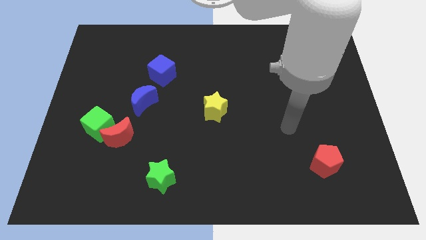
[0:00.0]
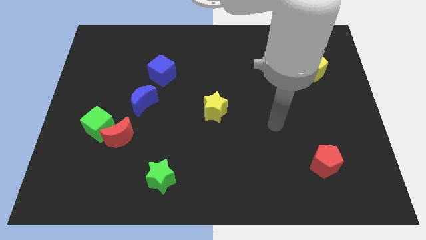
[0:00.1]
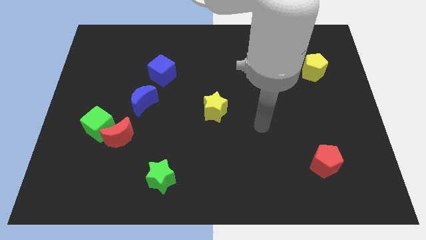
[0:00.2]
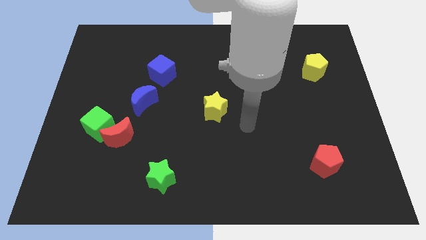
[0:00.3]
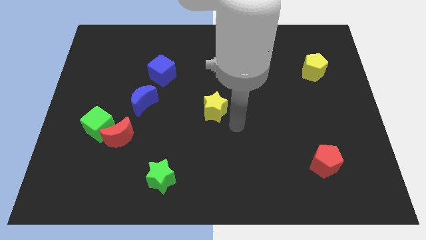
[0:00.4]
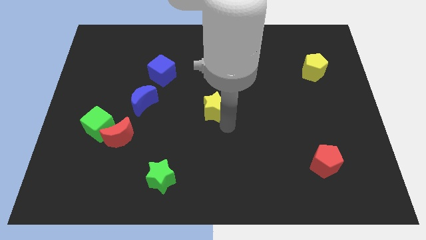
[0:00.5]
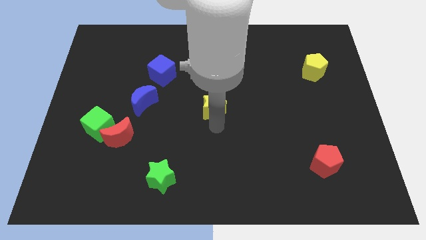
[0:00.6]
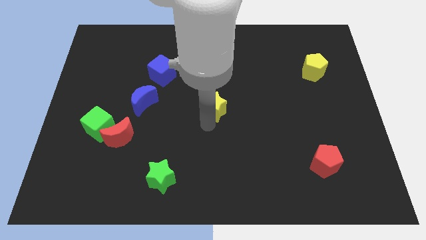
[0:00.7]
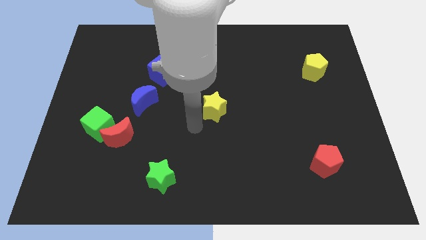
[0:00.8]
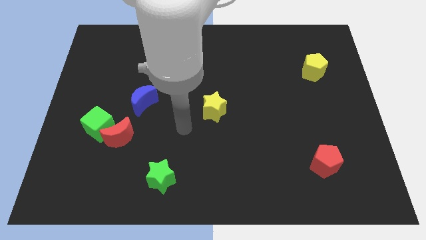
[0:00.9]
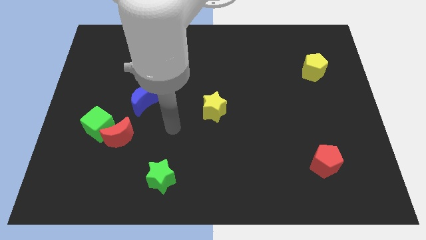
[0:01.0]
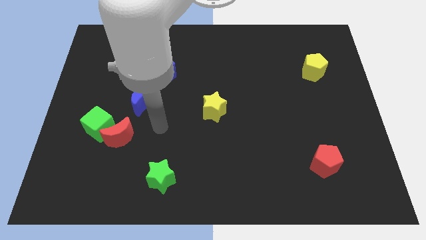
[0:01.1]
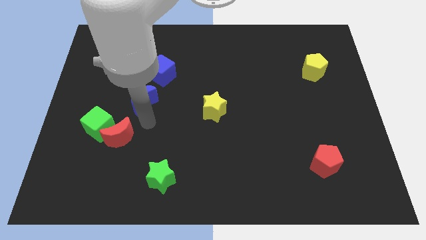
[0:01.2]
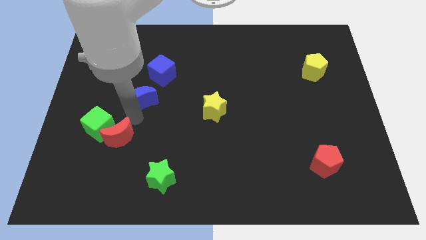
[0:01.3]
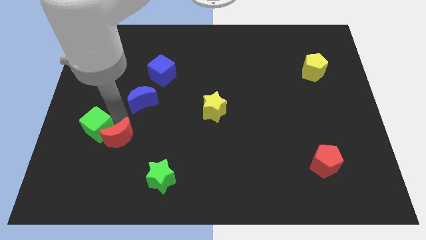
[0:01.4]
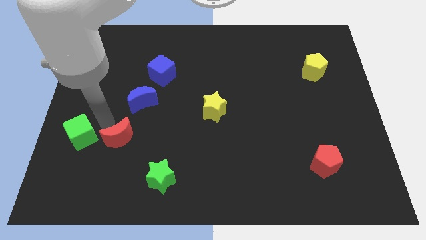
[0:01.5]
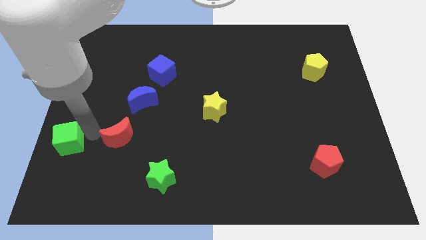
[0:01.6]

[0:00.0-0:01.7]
separate the red moon from the green cube

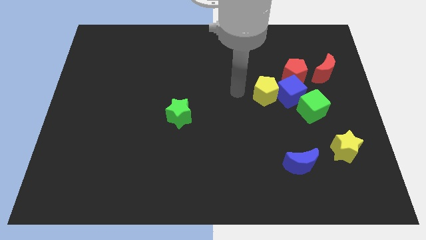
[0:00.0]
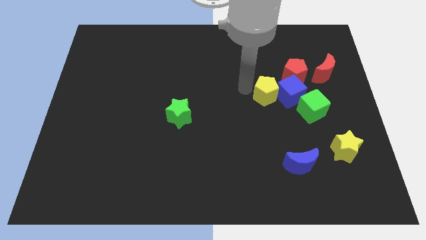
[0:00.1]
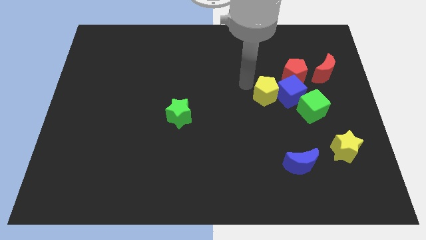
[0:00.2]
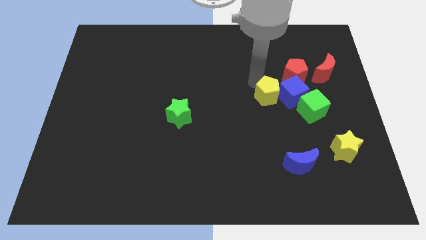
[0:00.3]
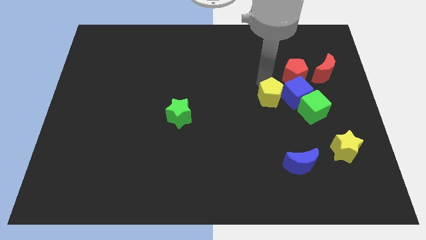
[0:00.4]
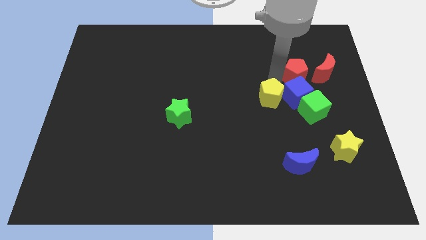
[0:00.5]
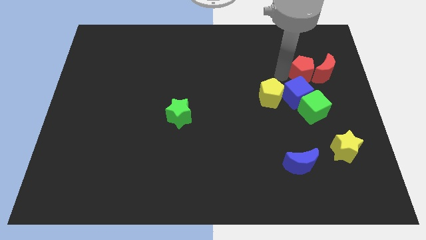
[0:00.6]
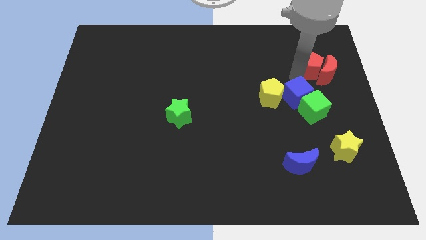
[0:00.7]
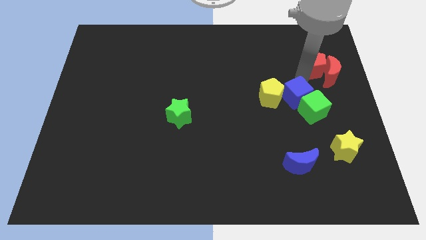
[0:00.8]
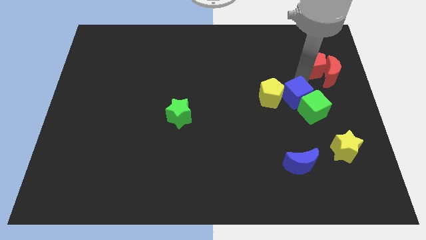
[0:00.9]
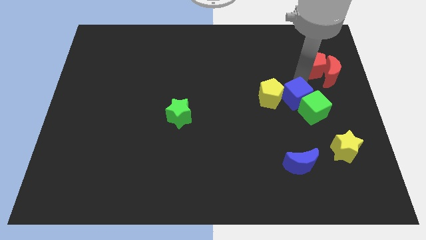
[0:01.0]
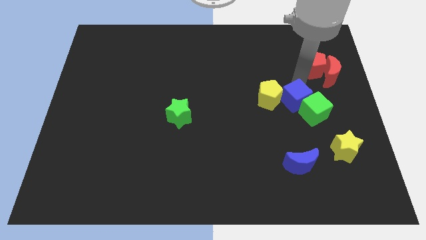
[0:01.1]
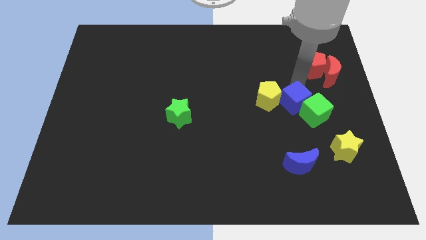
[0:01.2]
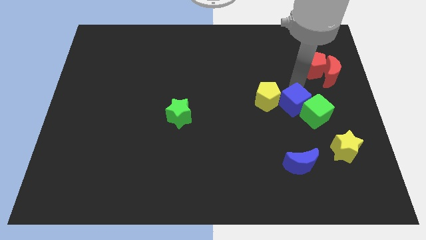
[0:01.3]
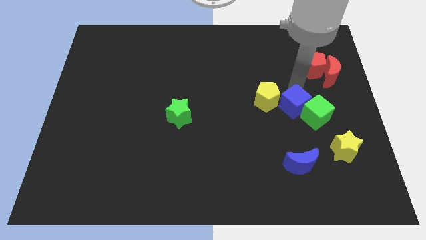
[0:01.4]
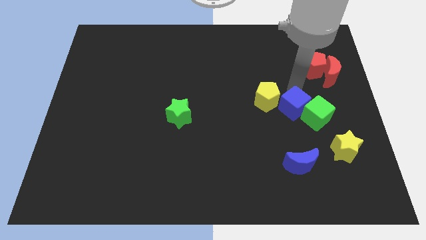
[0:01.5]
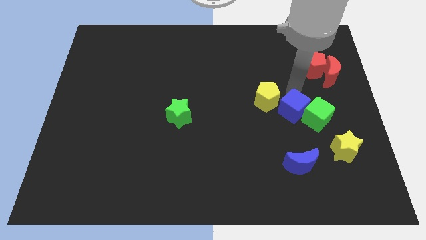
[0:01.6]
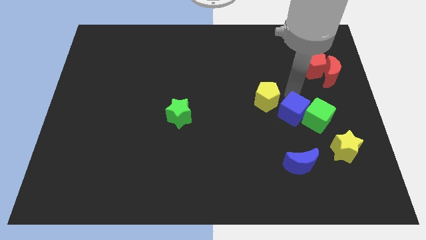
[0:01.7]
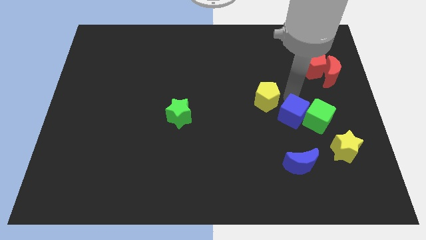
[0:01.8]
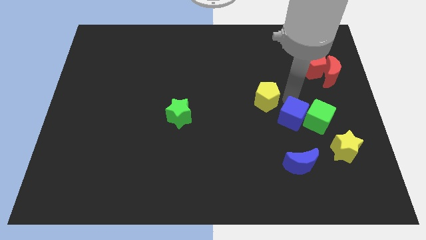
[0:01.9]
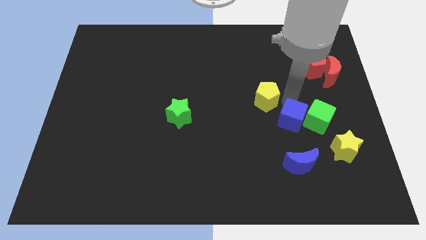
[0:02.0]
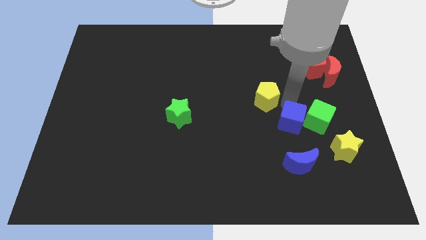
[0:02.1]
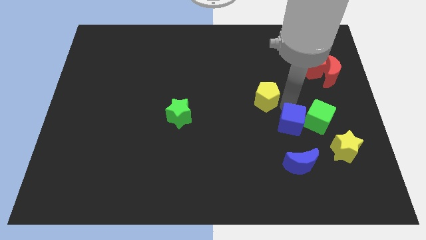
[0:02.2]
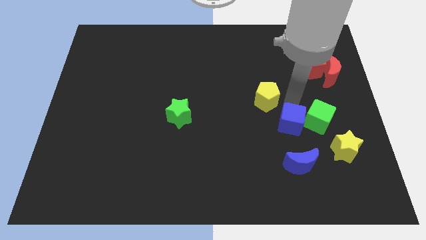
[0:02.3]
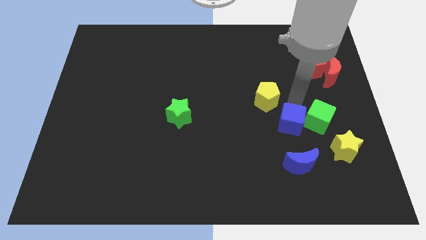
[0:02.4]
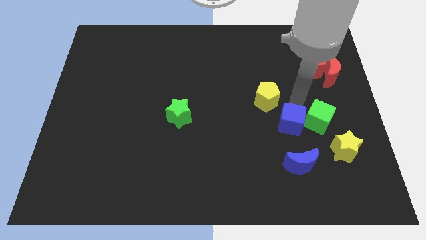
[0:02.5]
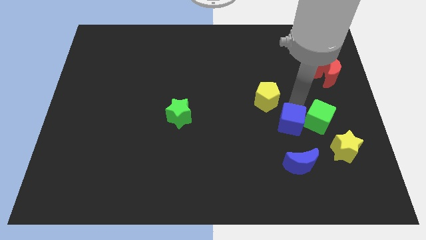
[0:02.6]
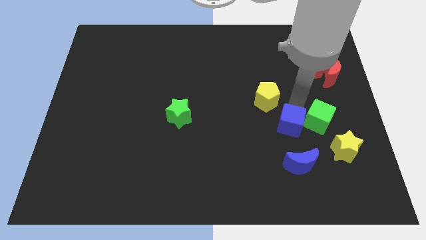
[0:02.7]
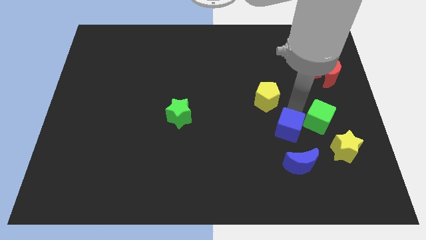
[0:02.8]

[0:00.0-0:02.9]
separate the blue cube from the yellow pentagon, green cube, and red pentagon

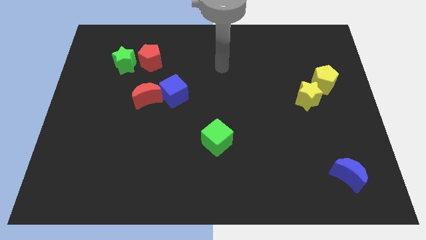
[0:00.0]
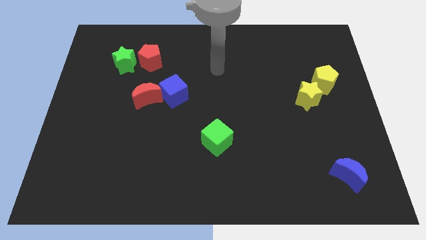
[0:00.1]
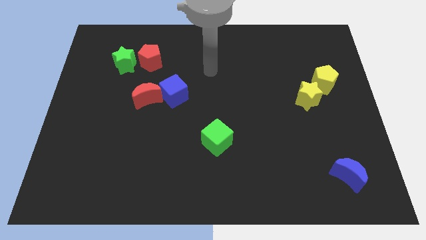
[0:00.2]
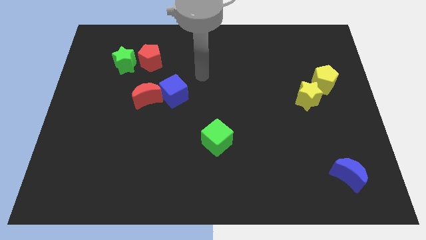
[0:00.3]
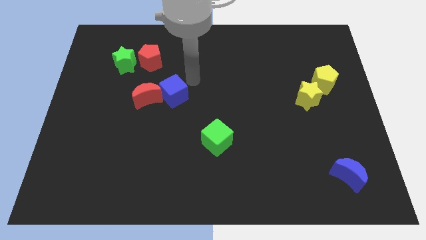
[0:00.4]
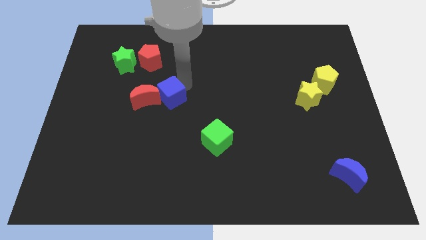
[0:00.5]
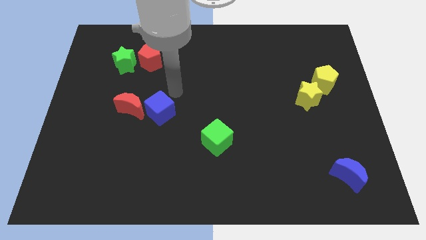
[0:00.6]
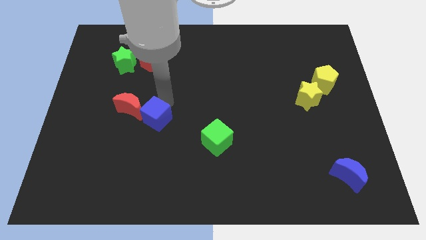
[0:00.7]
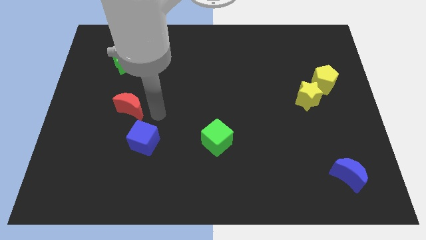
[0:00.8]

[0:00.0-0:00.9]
separate the red moon from the blue cube

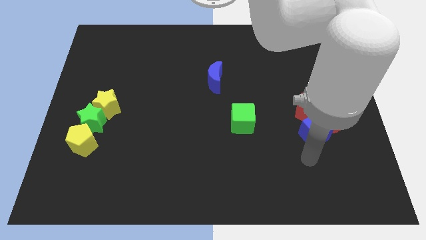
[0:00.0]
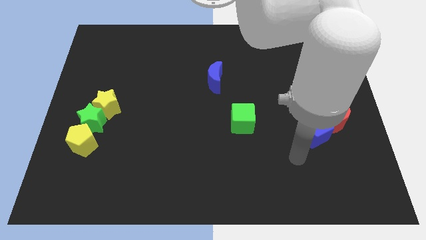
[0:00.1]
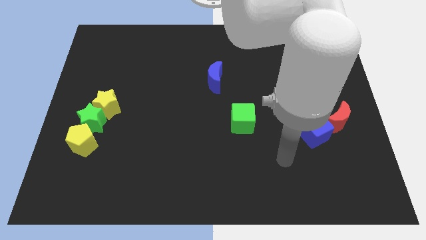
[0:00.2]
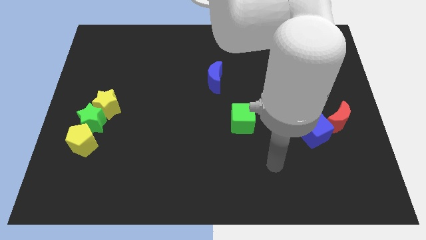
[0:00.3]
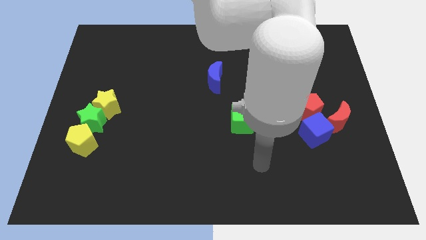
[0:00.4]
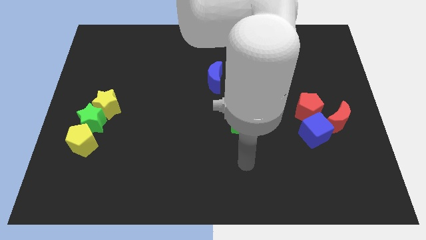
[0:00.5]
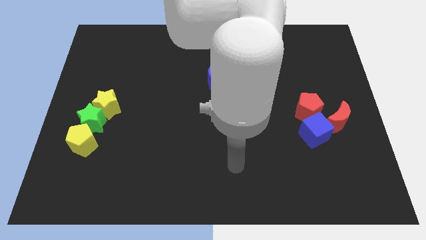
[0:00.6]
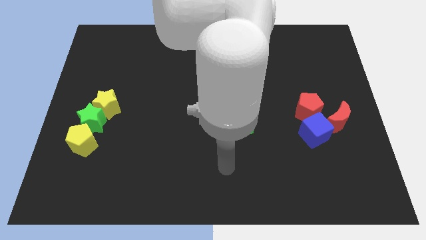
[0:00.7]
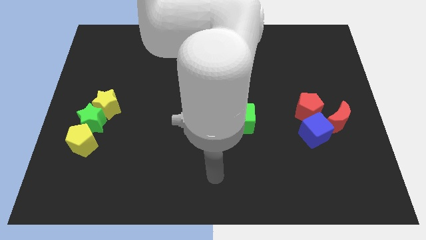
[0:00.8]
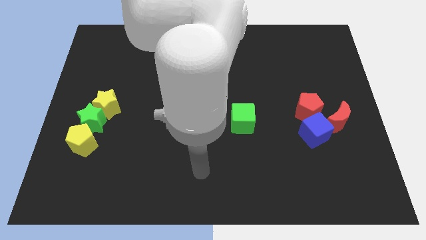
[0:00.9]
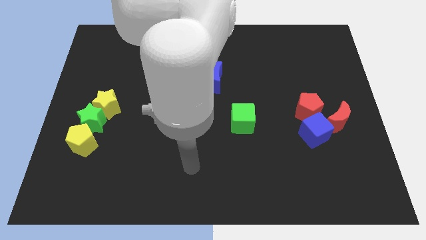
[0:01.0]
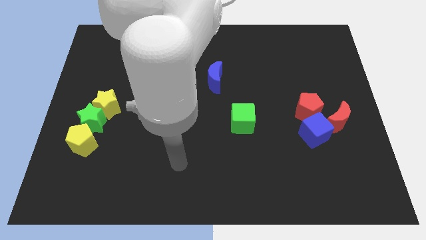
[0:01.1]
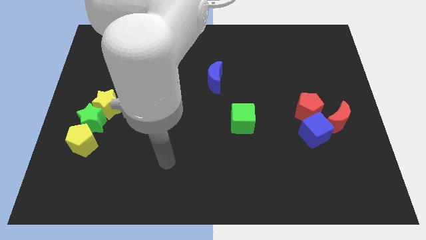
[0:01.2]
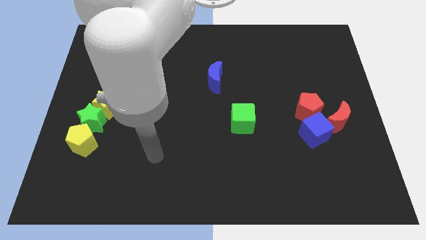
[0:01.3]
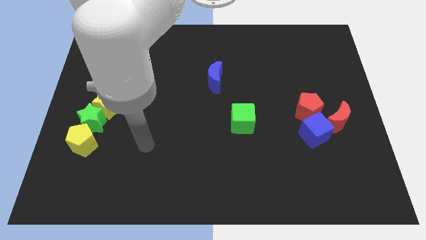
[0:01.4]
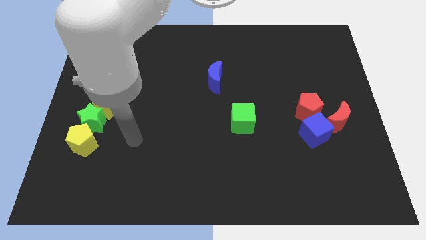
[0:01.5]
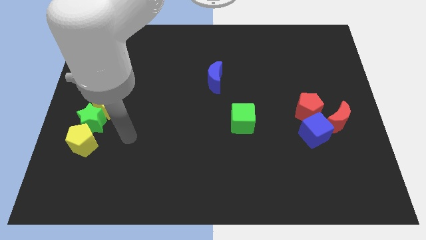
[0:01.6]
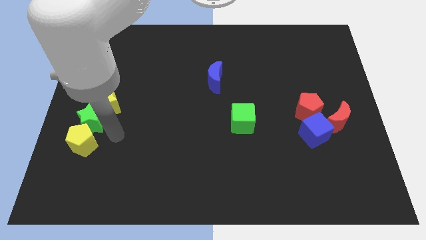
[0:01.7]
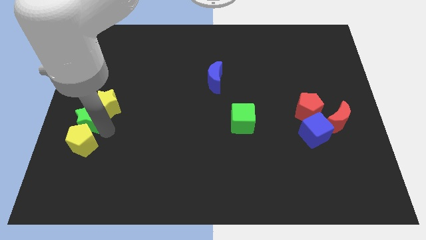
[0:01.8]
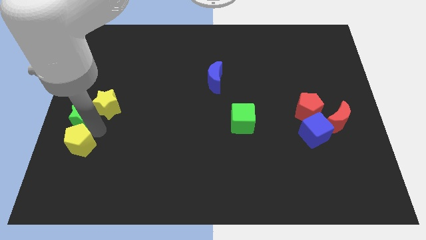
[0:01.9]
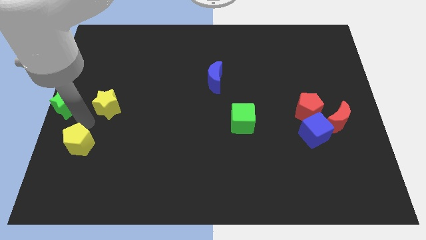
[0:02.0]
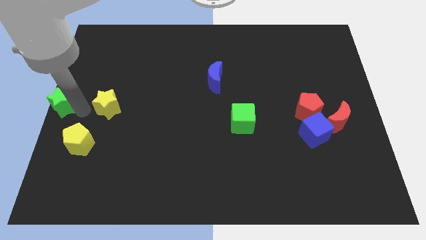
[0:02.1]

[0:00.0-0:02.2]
separate the yellow star from the green star

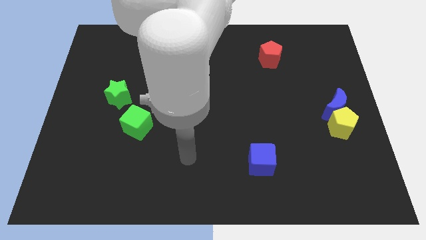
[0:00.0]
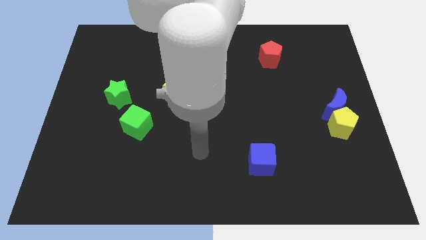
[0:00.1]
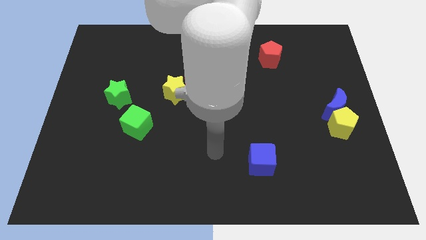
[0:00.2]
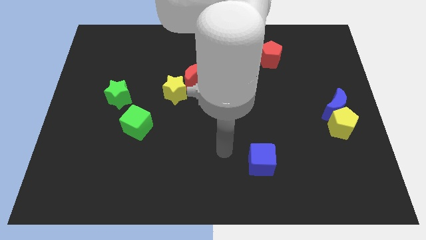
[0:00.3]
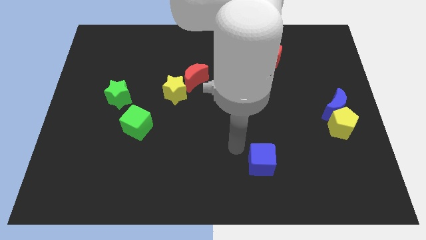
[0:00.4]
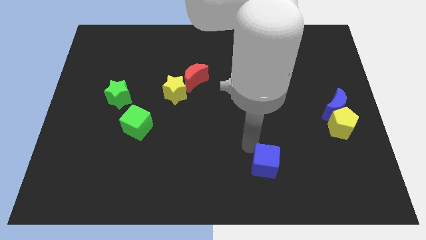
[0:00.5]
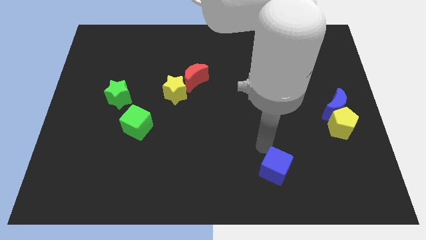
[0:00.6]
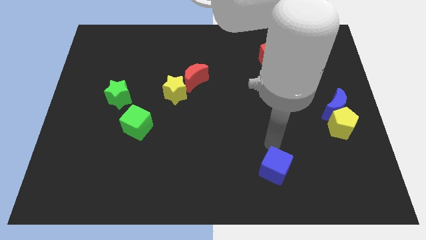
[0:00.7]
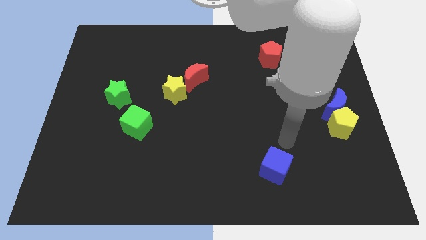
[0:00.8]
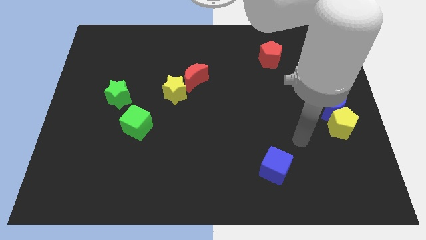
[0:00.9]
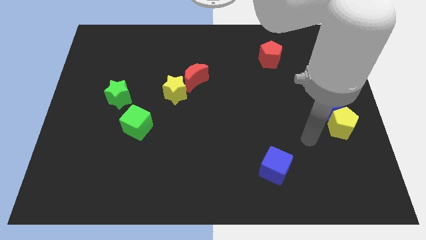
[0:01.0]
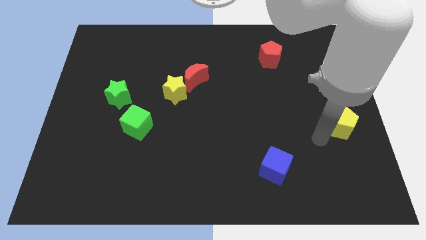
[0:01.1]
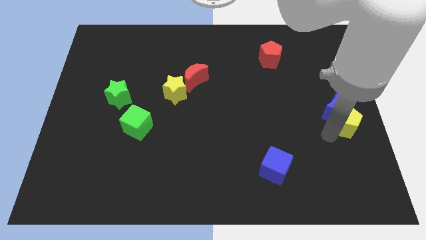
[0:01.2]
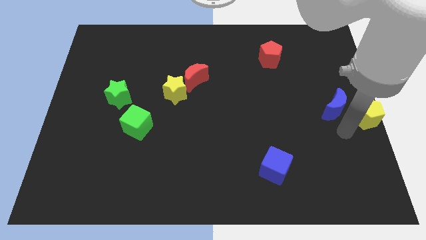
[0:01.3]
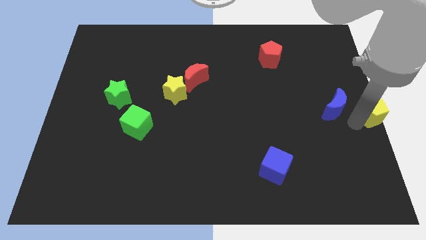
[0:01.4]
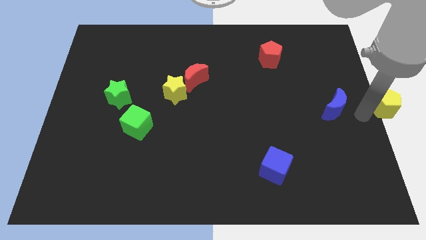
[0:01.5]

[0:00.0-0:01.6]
pull the blue moon apart from the yellow pentagon
